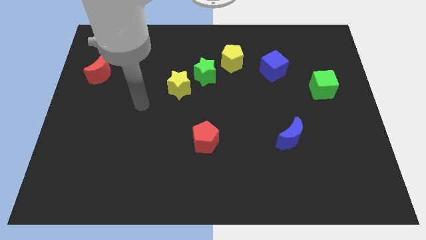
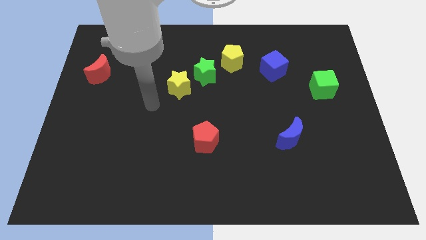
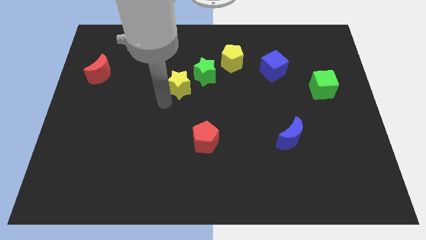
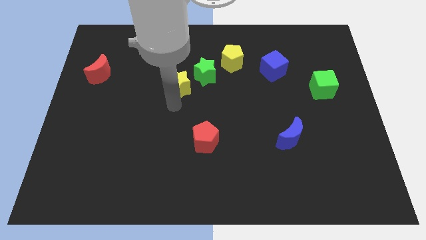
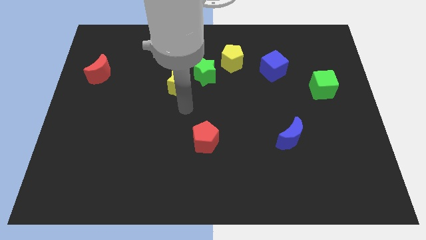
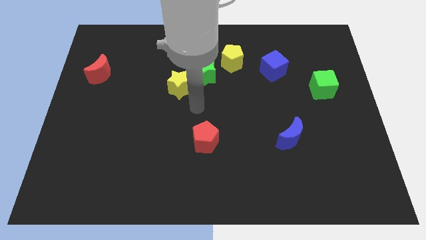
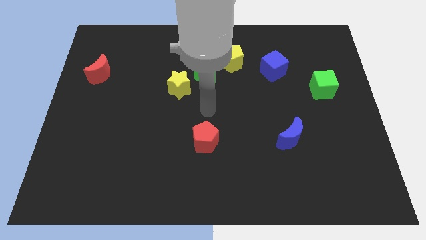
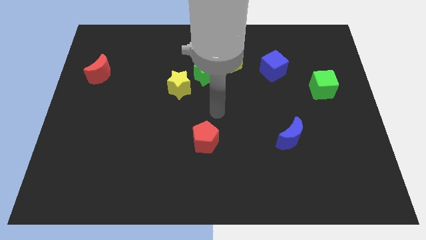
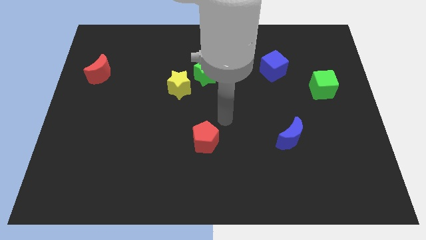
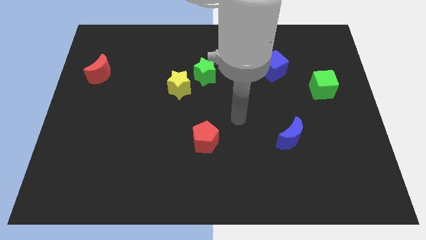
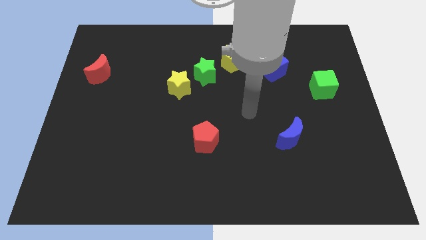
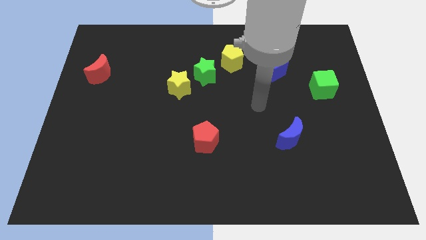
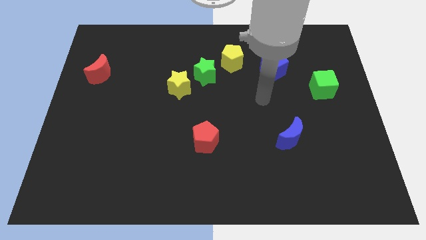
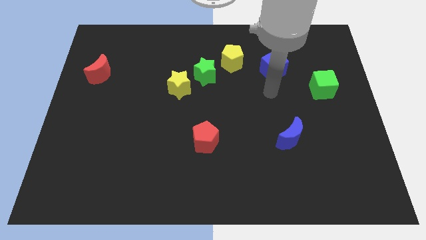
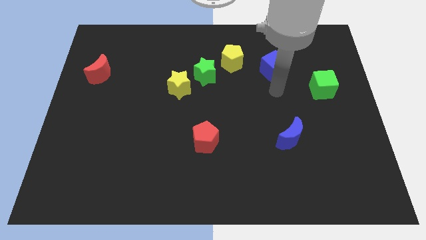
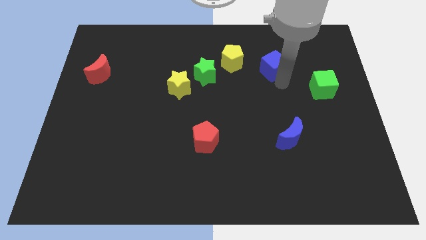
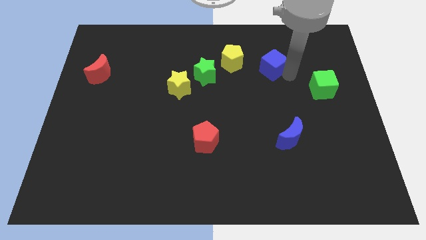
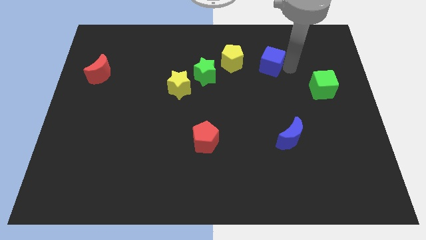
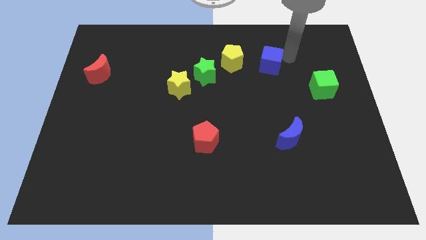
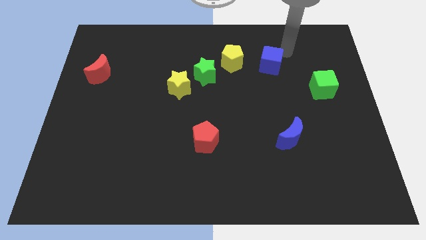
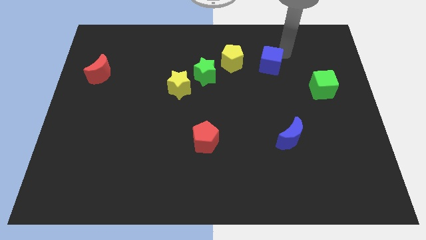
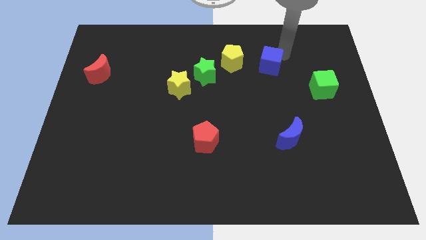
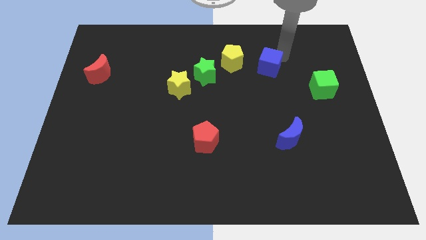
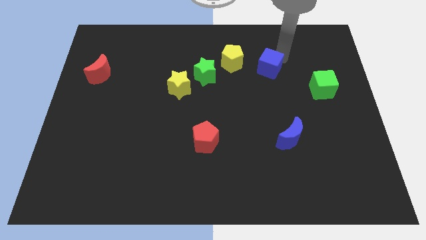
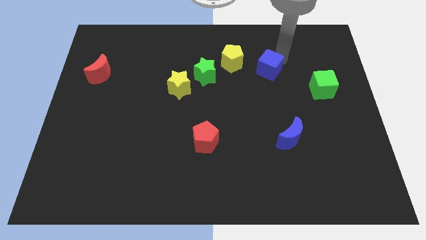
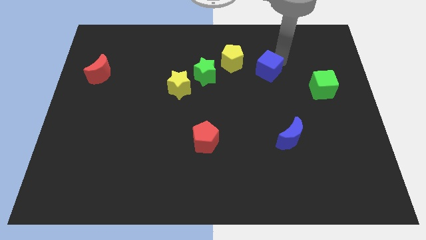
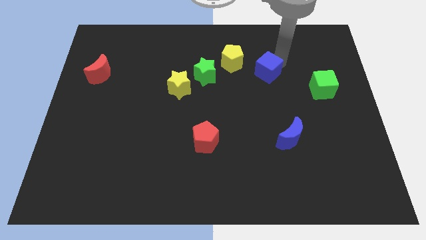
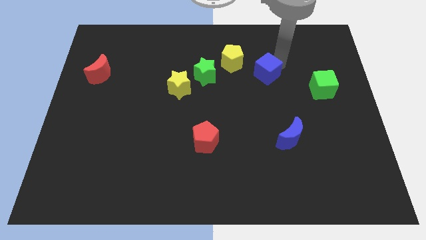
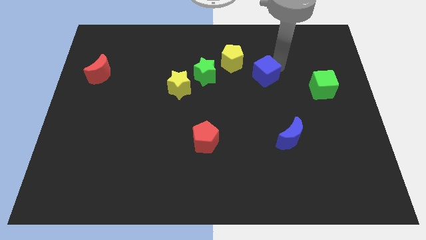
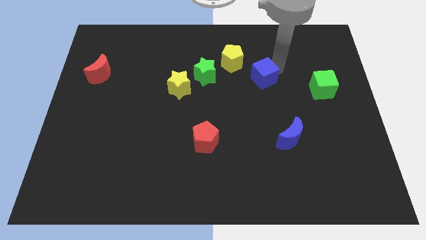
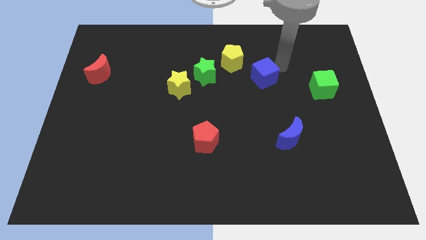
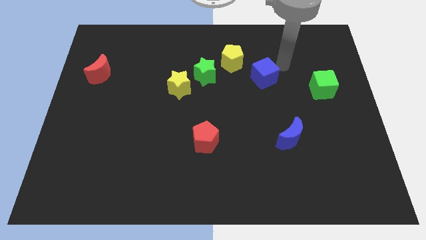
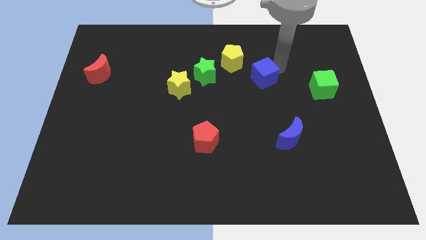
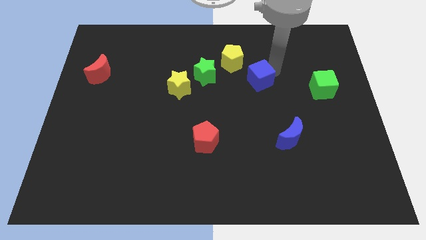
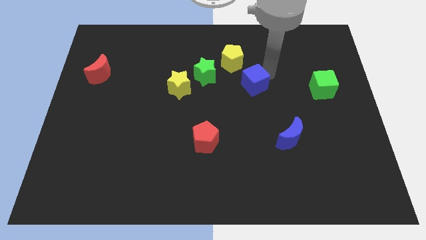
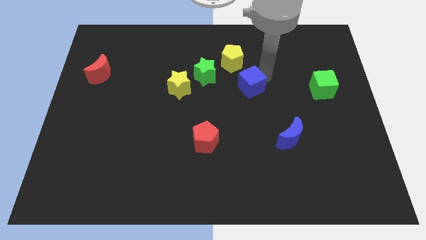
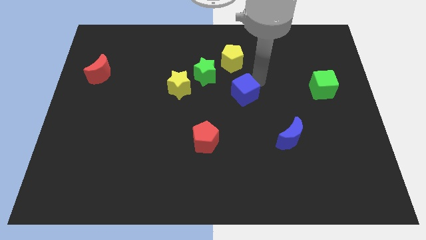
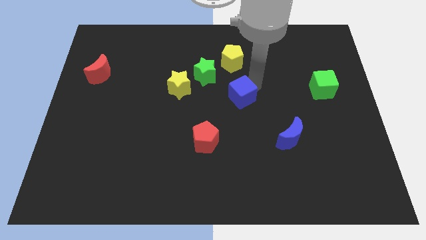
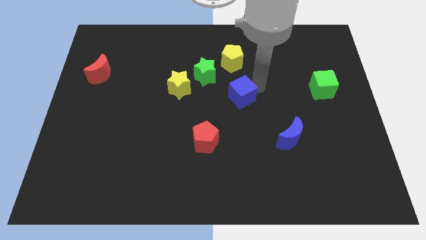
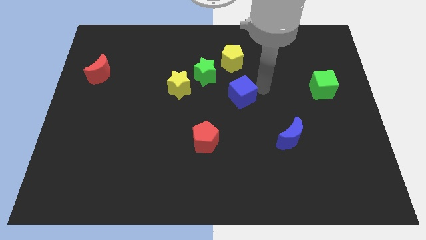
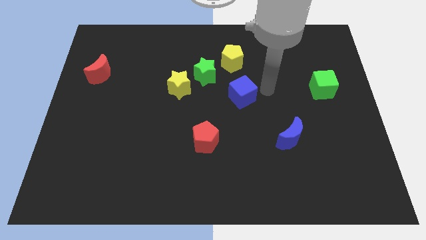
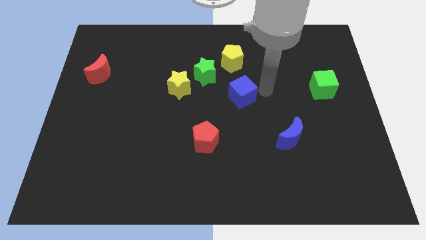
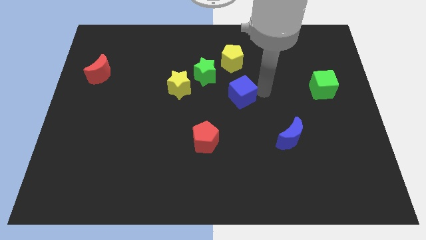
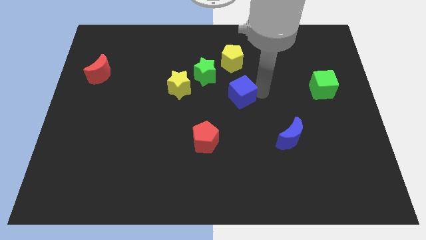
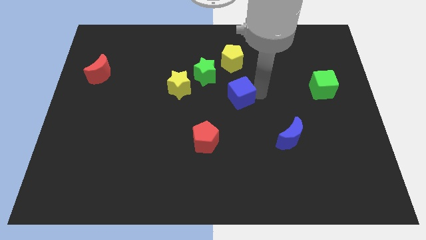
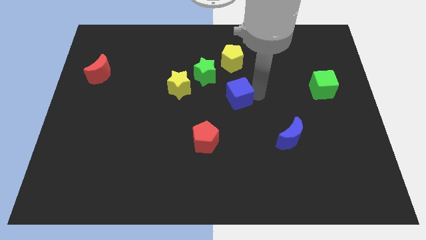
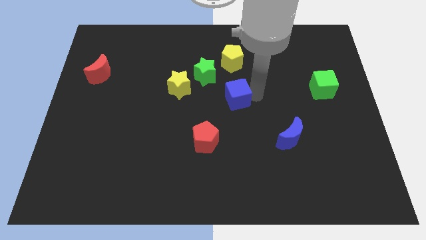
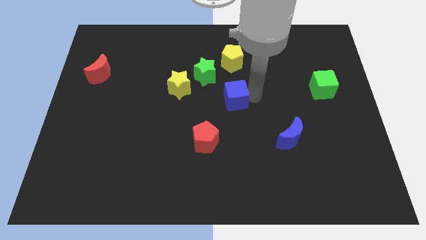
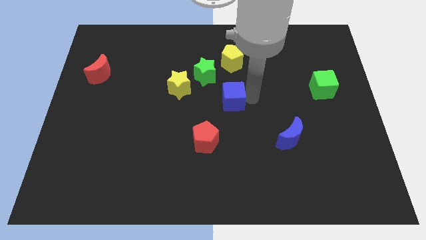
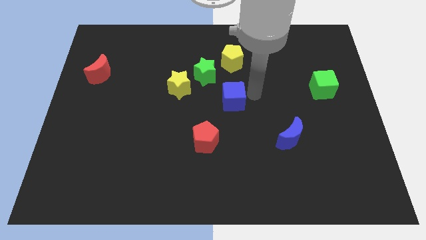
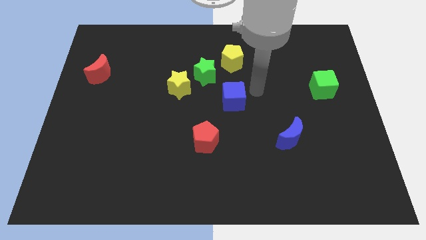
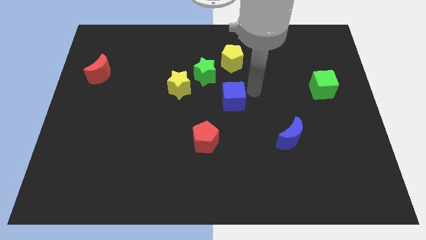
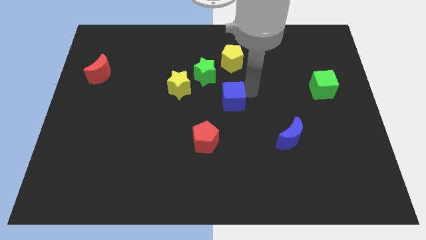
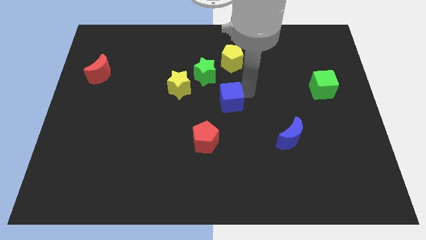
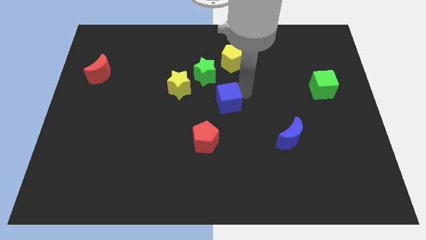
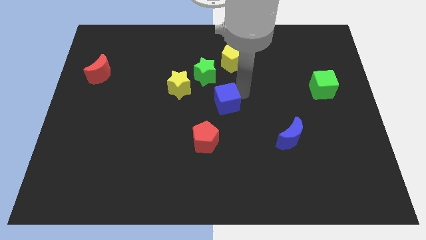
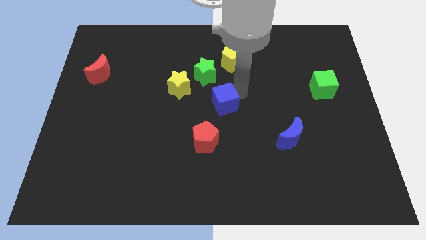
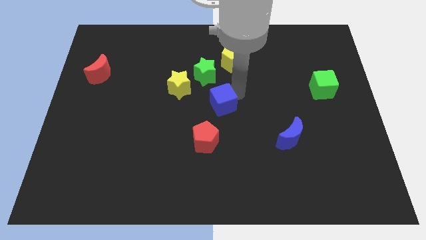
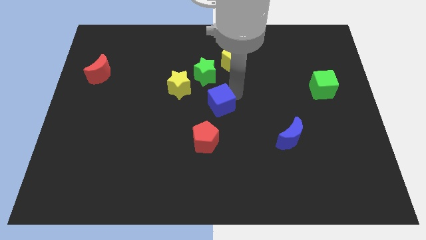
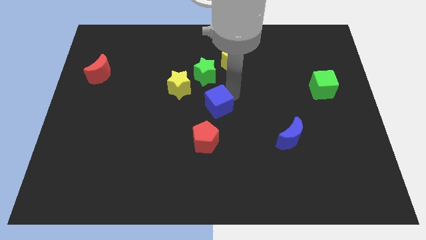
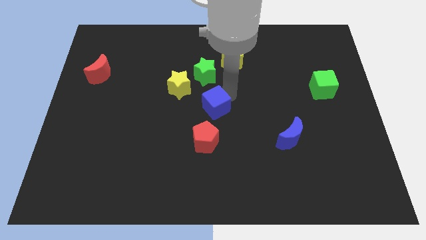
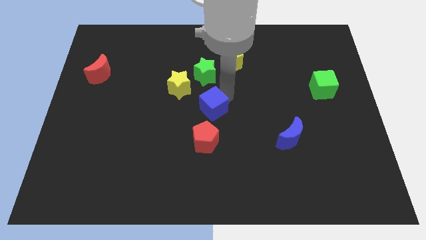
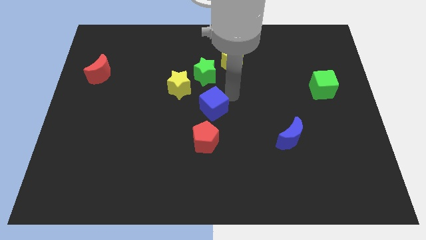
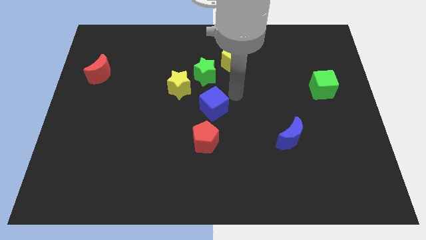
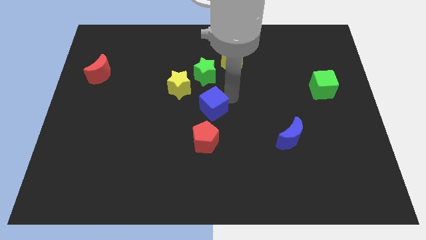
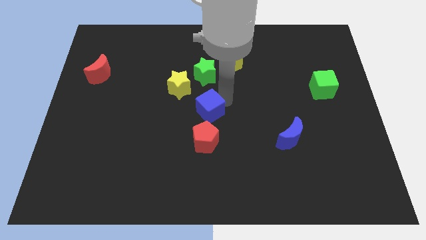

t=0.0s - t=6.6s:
slide the blue cube diagonally down and to the left

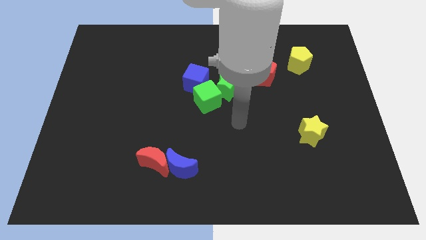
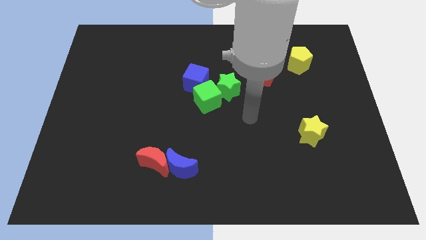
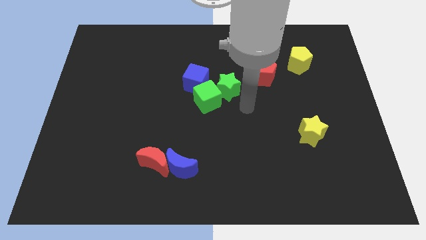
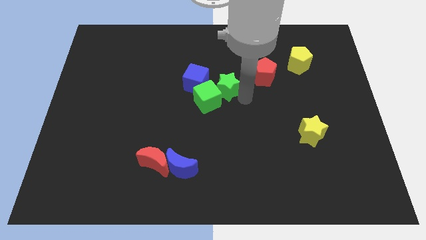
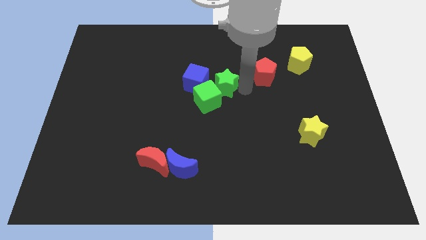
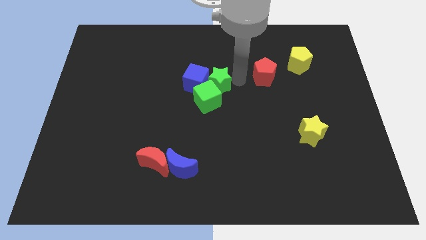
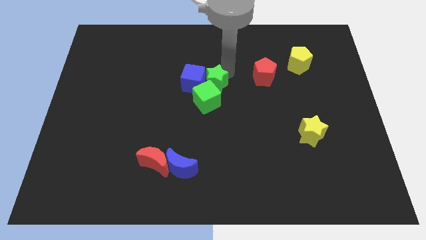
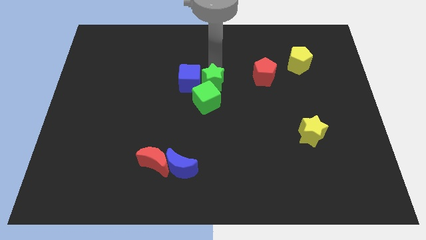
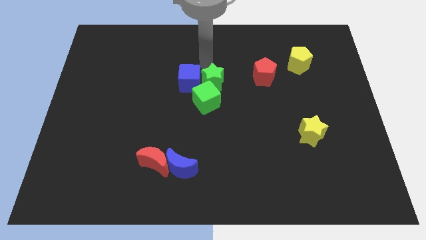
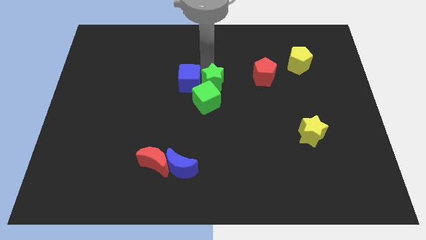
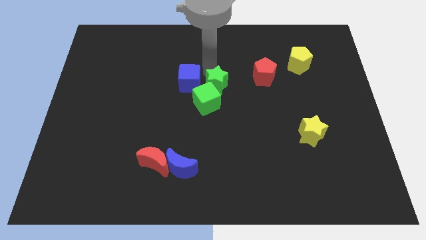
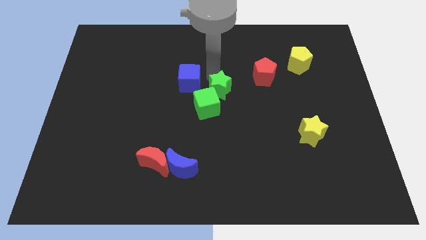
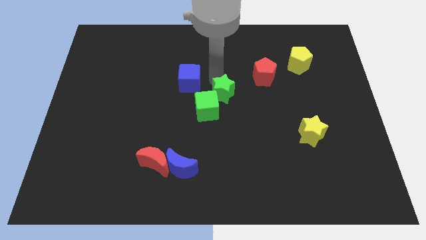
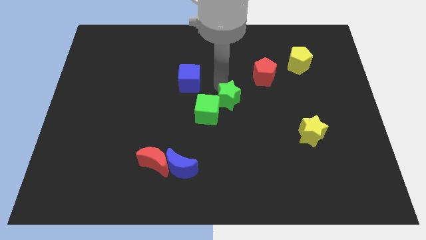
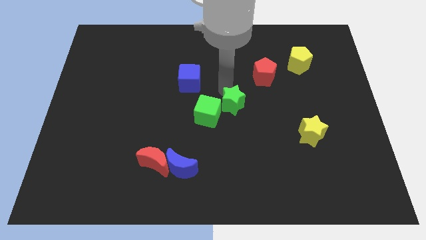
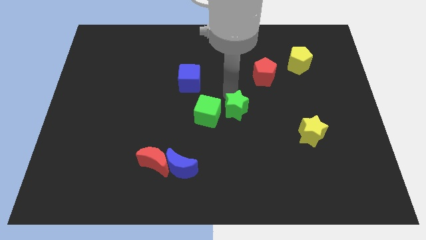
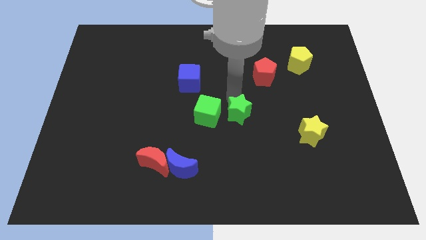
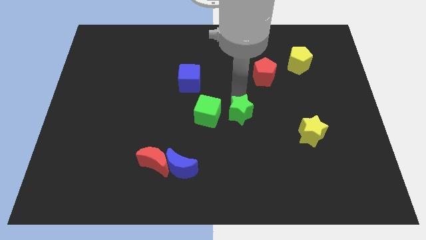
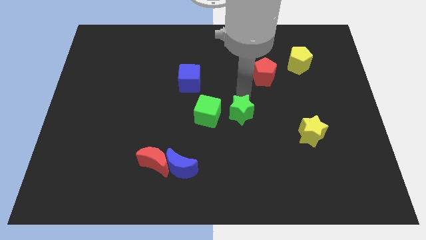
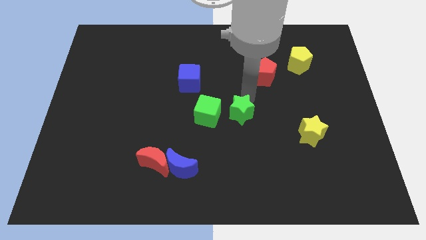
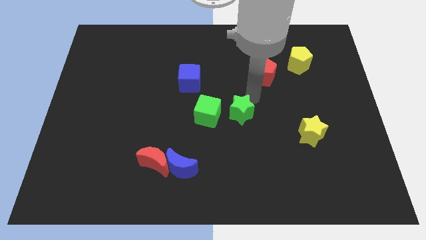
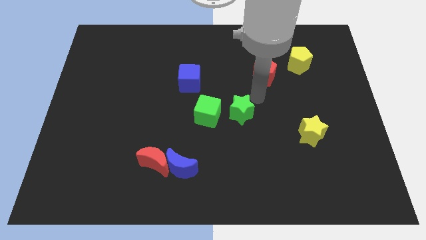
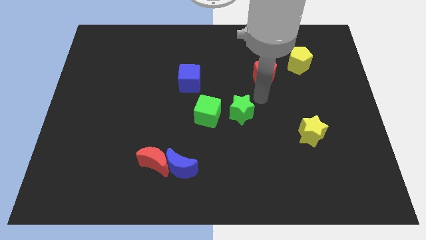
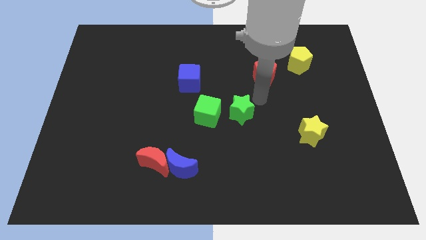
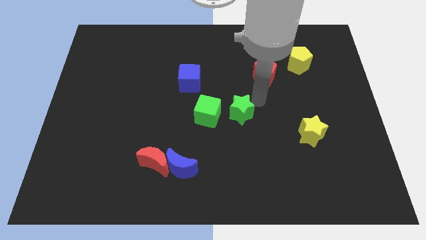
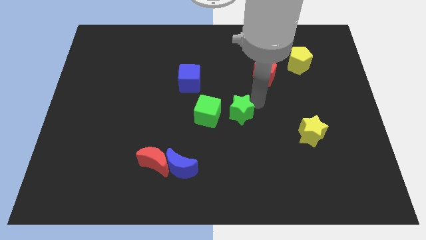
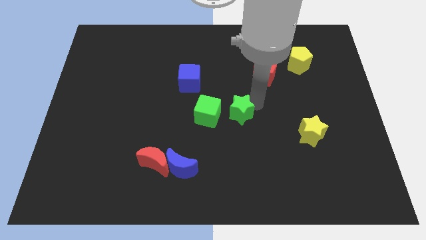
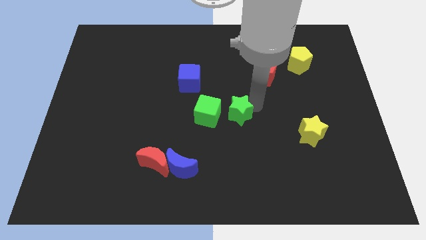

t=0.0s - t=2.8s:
slide the green star downwards slightly
